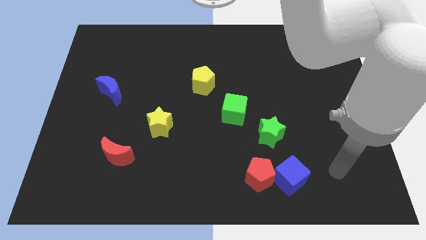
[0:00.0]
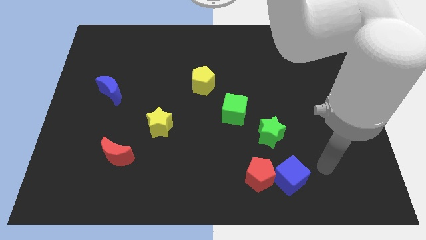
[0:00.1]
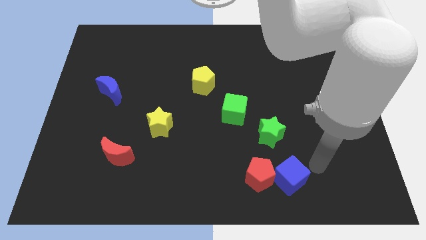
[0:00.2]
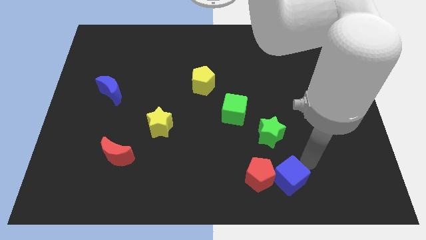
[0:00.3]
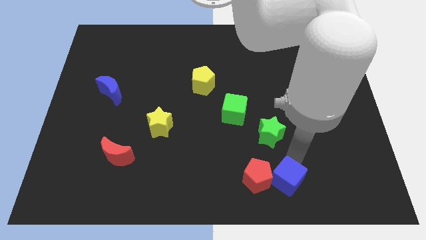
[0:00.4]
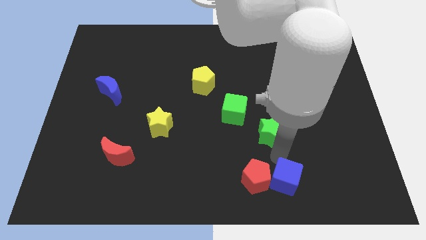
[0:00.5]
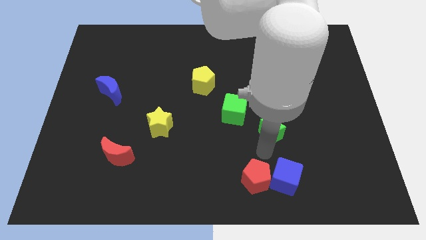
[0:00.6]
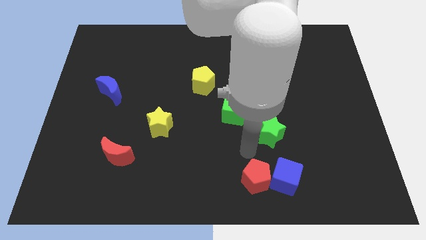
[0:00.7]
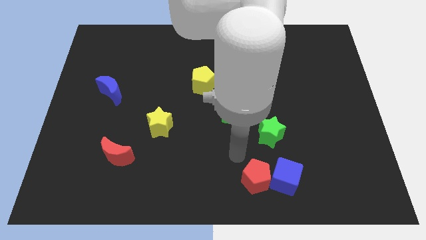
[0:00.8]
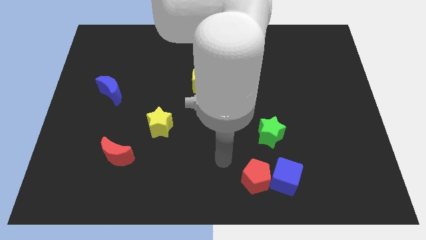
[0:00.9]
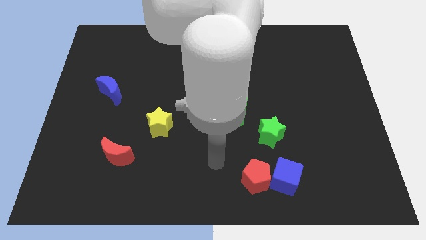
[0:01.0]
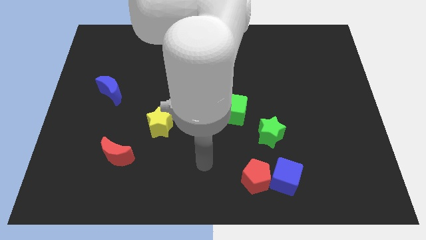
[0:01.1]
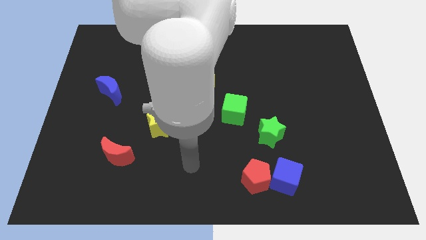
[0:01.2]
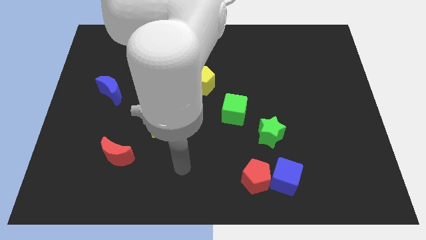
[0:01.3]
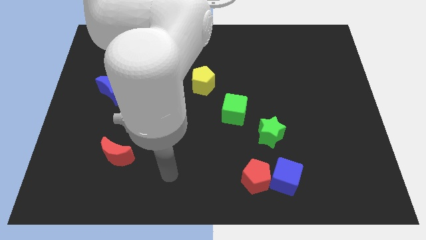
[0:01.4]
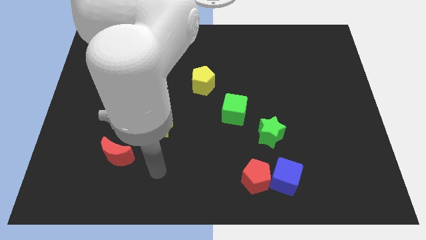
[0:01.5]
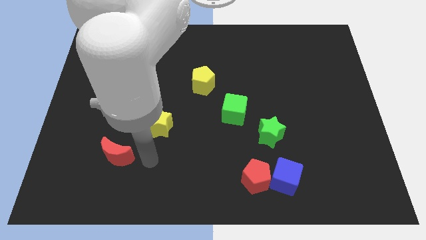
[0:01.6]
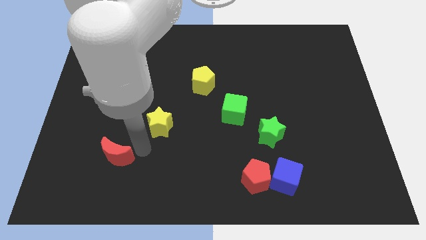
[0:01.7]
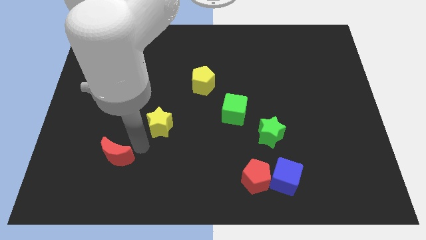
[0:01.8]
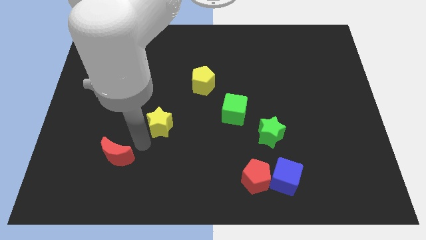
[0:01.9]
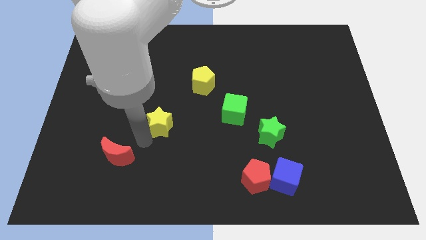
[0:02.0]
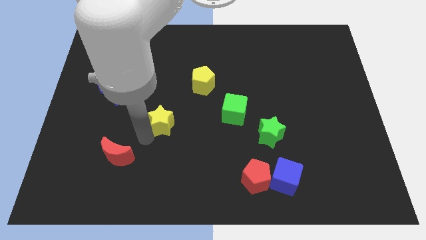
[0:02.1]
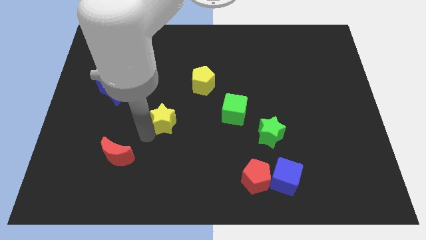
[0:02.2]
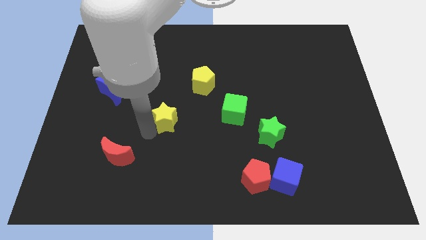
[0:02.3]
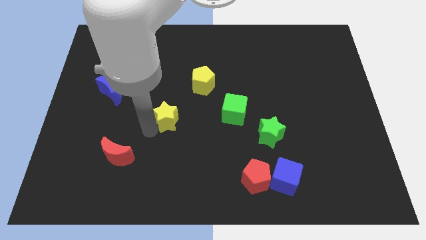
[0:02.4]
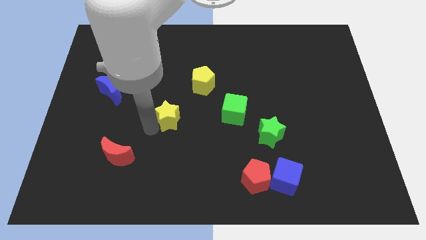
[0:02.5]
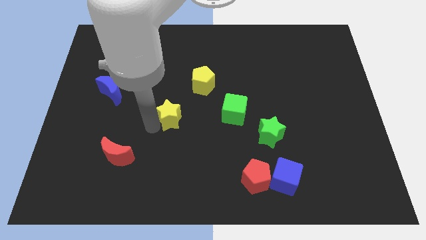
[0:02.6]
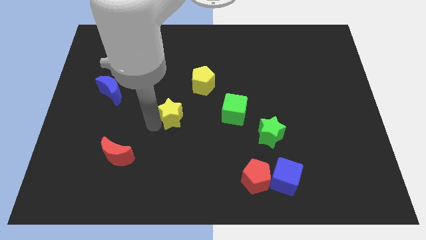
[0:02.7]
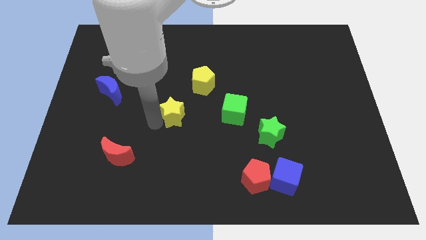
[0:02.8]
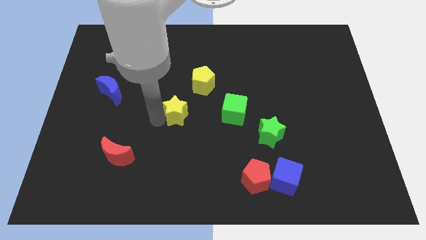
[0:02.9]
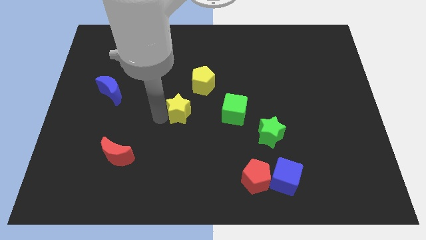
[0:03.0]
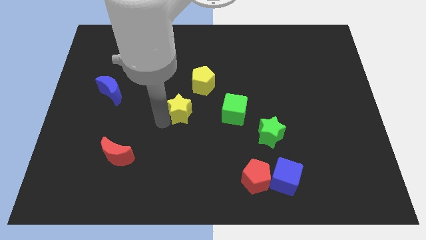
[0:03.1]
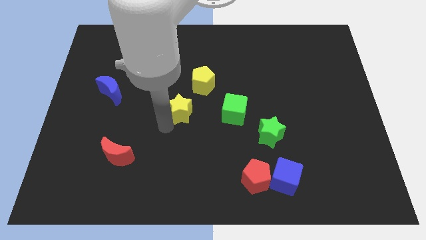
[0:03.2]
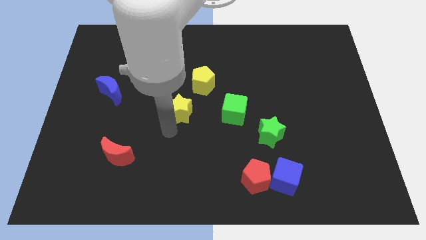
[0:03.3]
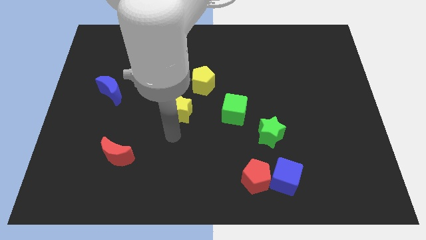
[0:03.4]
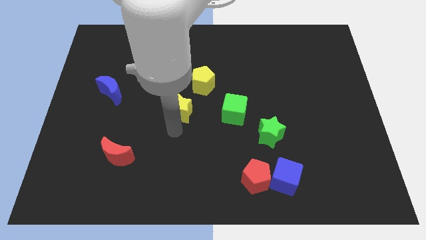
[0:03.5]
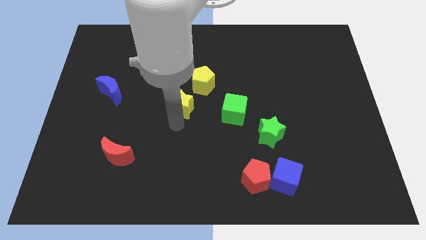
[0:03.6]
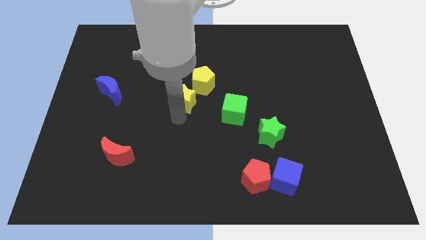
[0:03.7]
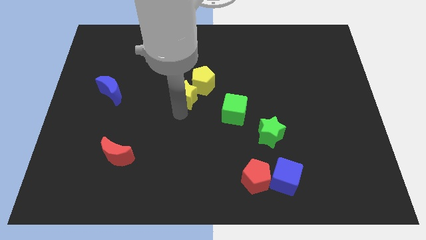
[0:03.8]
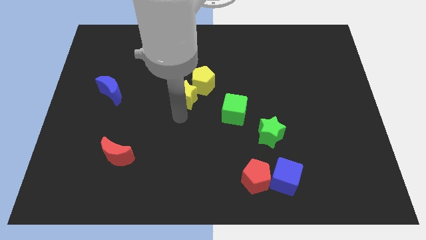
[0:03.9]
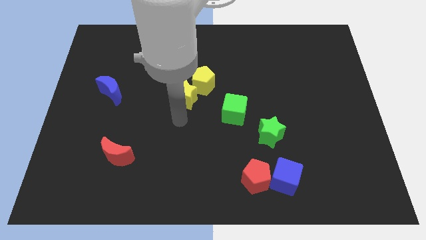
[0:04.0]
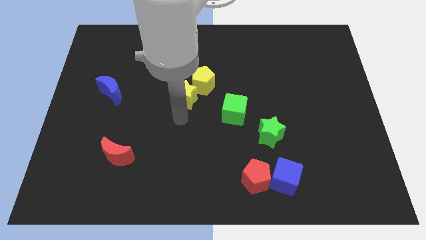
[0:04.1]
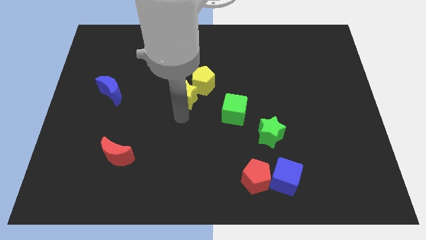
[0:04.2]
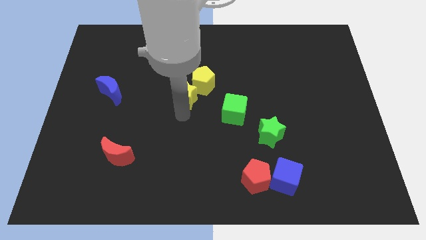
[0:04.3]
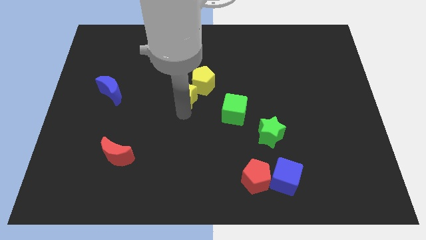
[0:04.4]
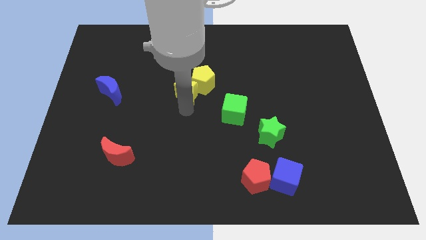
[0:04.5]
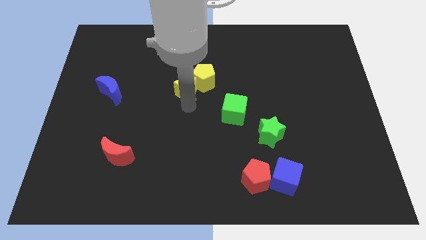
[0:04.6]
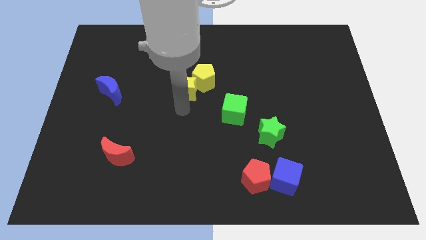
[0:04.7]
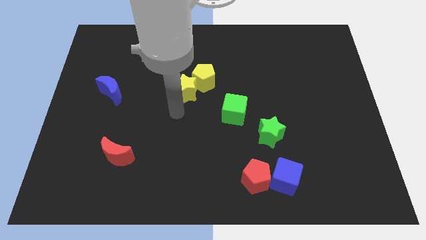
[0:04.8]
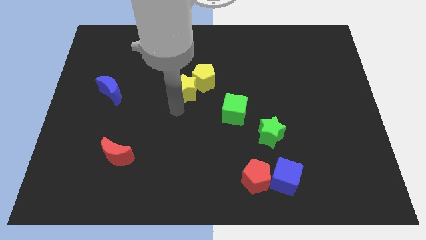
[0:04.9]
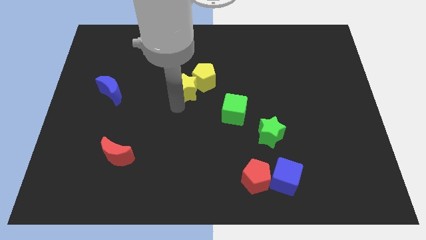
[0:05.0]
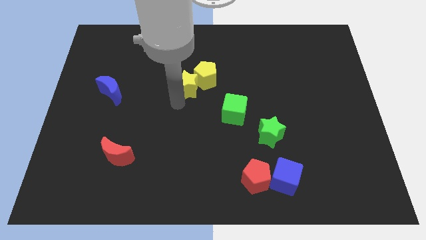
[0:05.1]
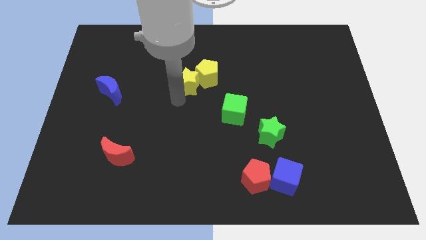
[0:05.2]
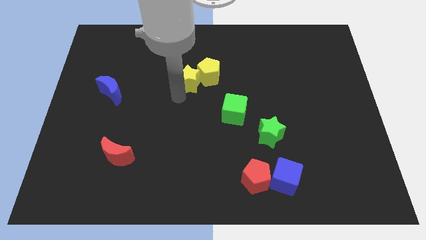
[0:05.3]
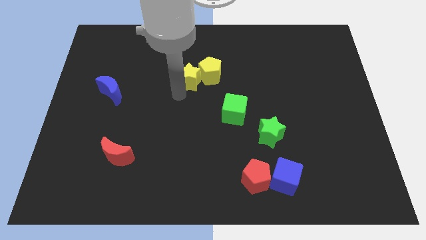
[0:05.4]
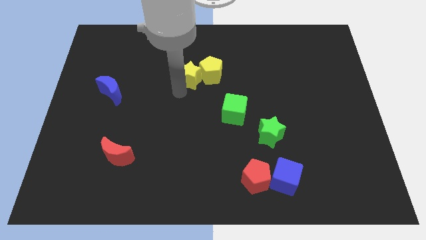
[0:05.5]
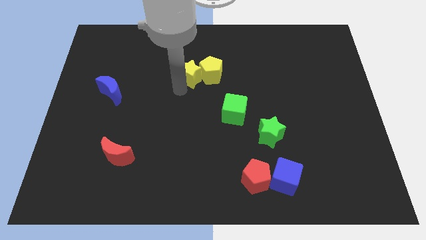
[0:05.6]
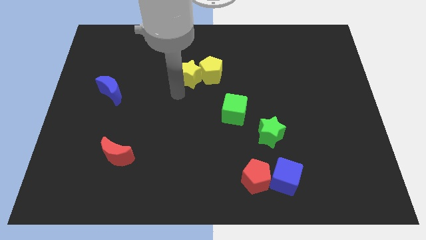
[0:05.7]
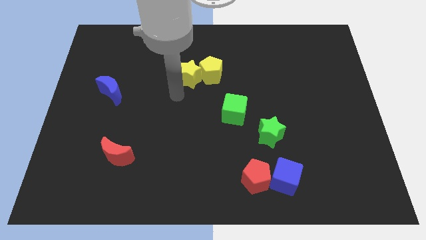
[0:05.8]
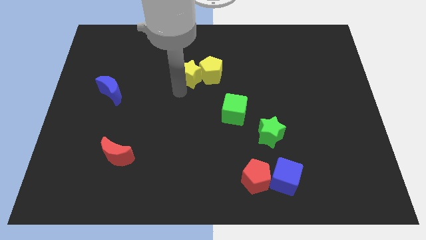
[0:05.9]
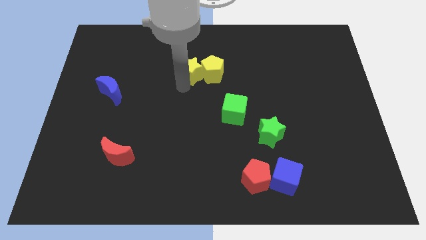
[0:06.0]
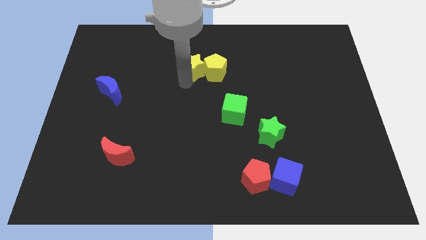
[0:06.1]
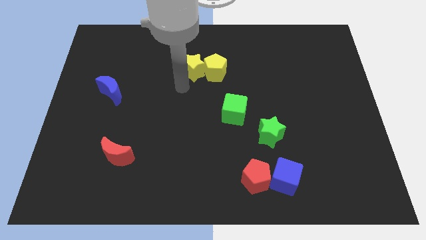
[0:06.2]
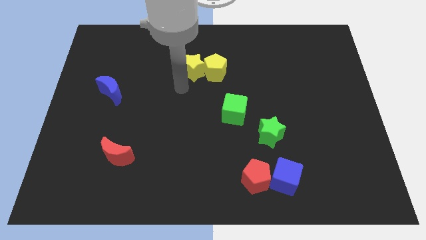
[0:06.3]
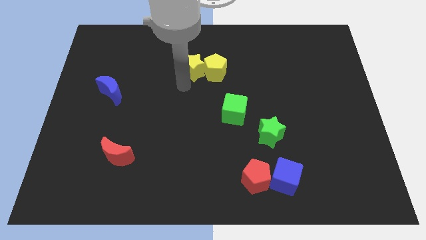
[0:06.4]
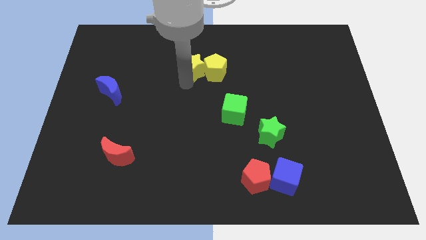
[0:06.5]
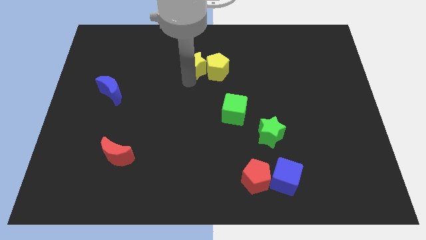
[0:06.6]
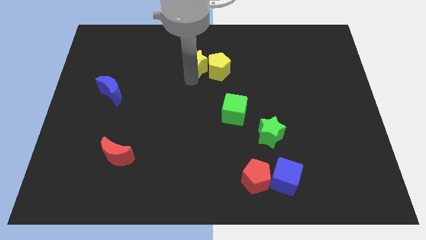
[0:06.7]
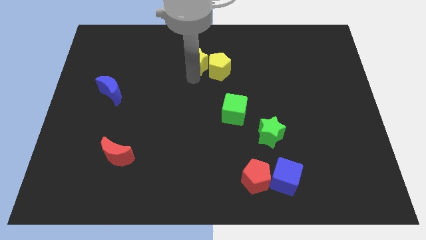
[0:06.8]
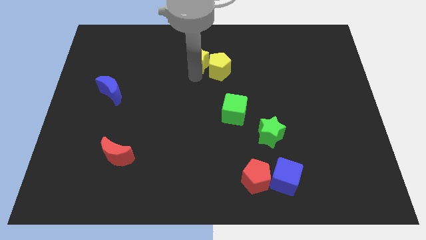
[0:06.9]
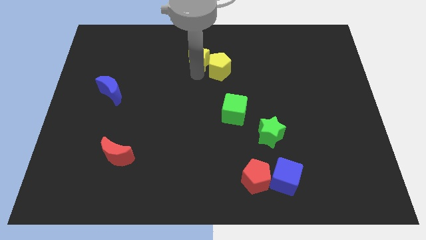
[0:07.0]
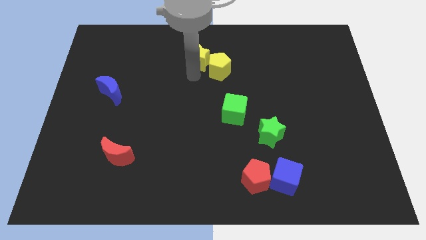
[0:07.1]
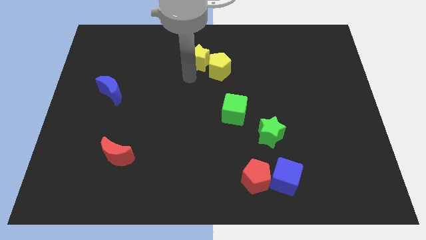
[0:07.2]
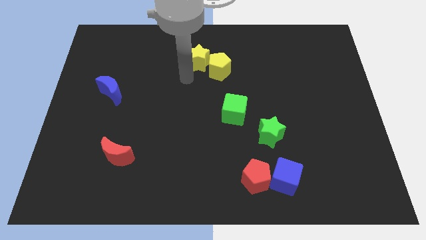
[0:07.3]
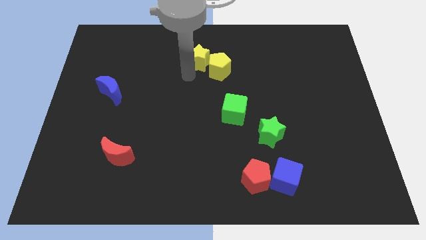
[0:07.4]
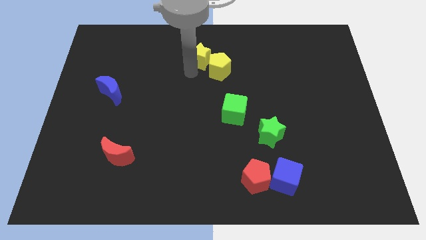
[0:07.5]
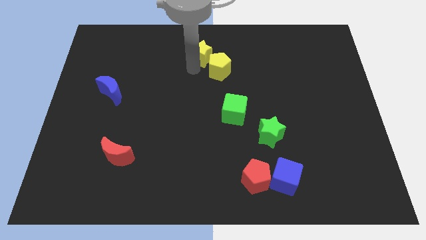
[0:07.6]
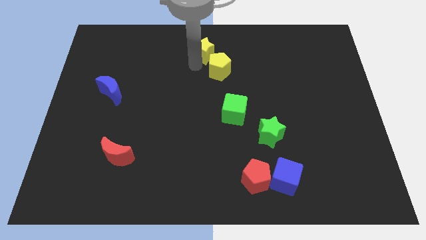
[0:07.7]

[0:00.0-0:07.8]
push the yellow star to the towards your base
